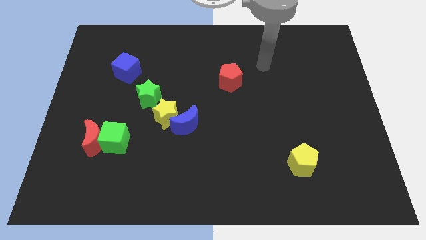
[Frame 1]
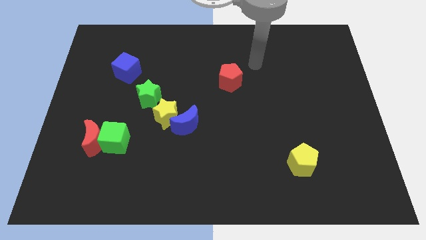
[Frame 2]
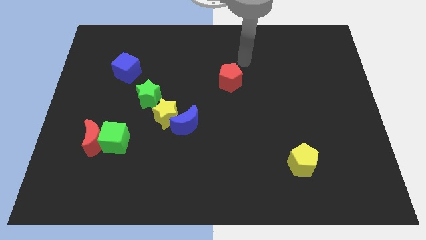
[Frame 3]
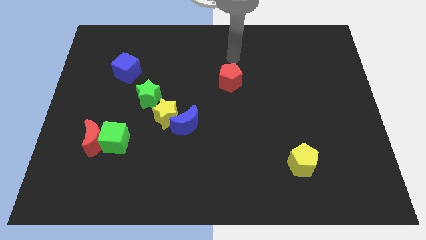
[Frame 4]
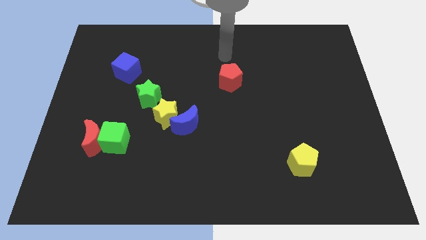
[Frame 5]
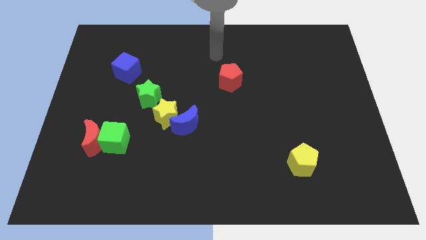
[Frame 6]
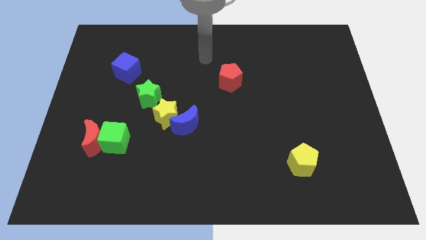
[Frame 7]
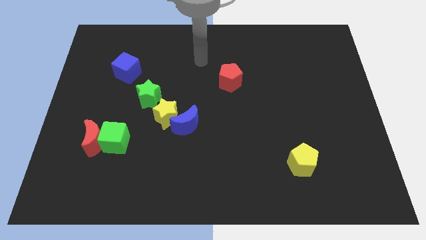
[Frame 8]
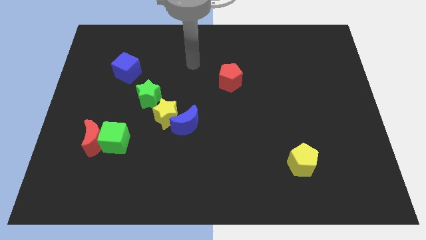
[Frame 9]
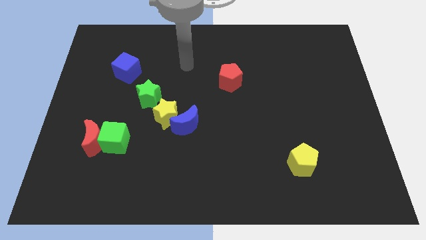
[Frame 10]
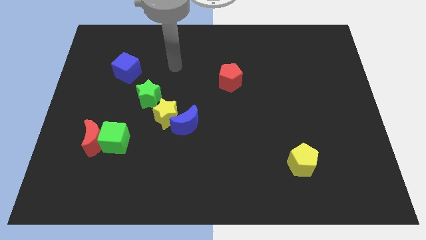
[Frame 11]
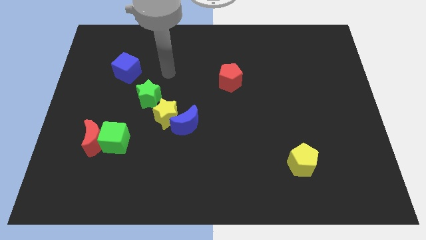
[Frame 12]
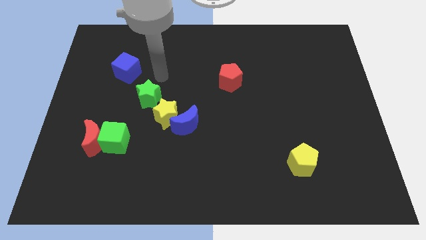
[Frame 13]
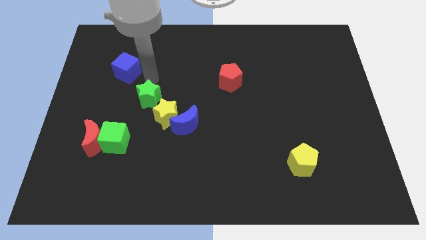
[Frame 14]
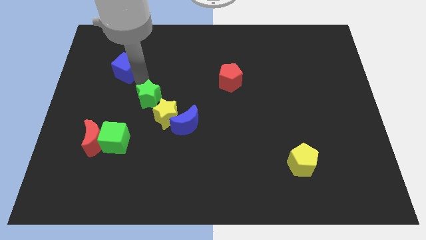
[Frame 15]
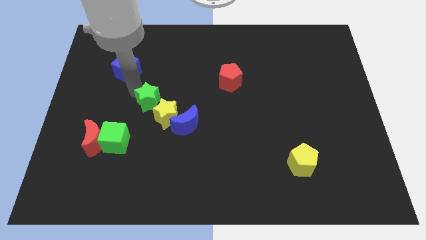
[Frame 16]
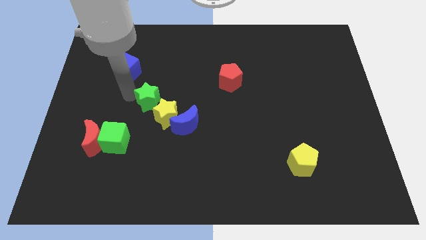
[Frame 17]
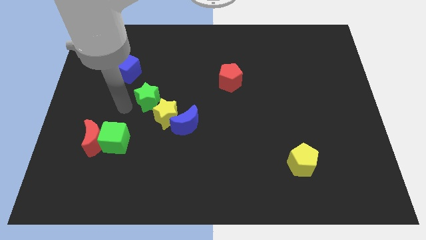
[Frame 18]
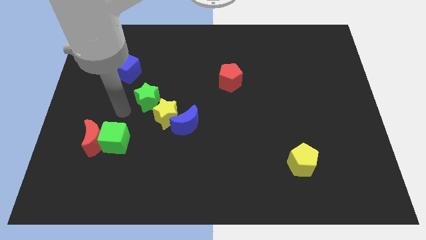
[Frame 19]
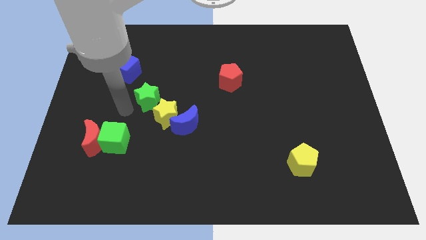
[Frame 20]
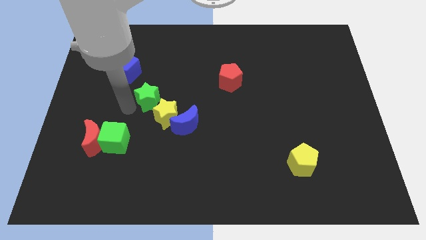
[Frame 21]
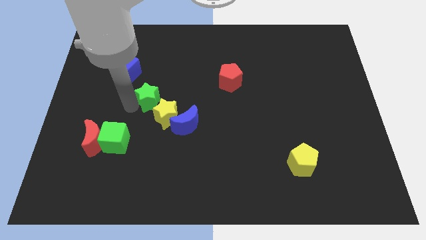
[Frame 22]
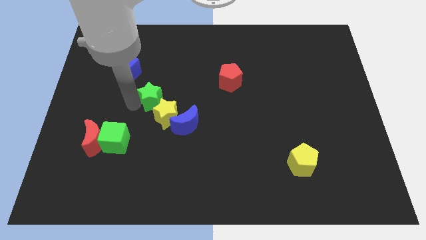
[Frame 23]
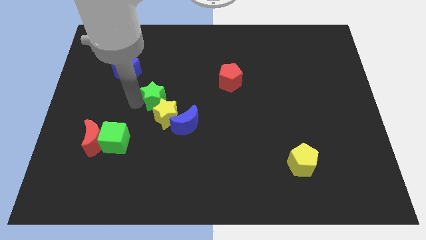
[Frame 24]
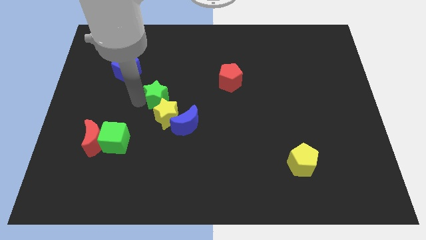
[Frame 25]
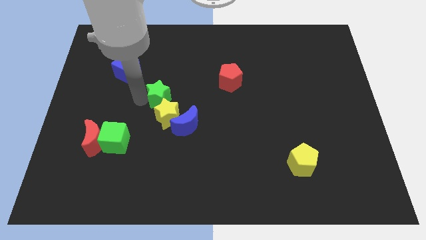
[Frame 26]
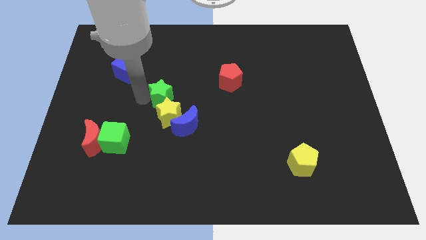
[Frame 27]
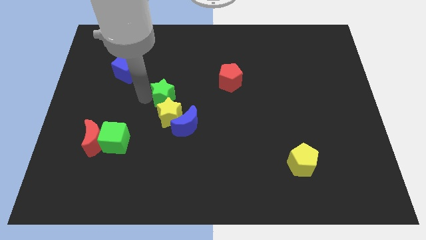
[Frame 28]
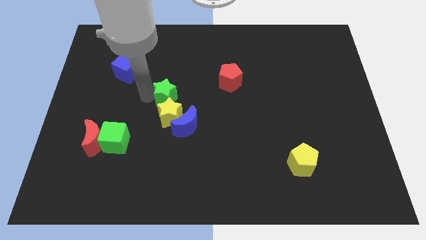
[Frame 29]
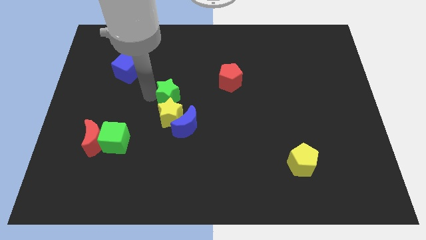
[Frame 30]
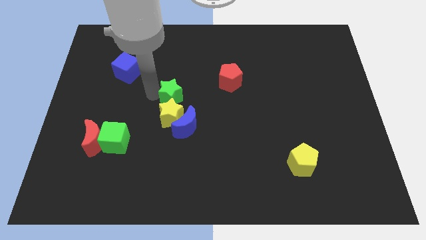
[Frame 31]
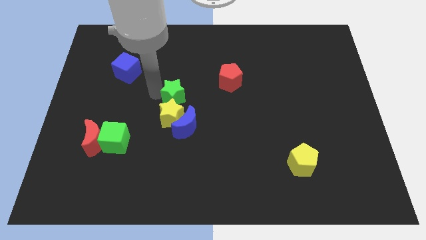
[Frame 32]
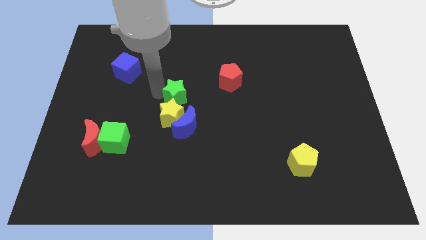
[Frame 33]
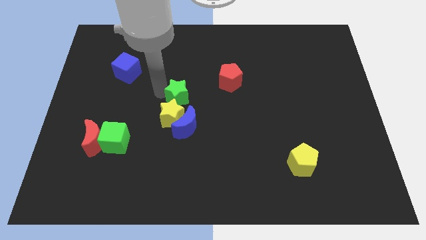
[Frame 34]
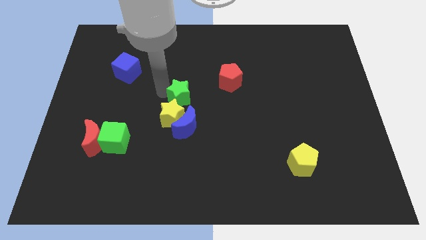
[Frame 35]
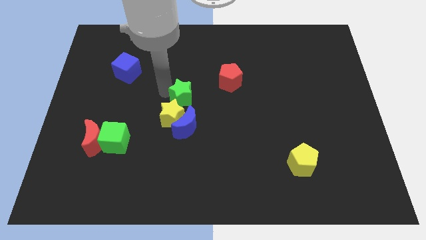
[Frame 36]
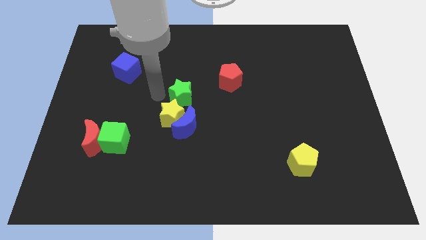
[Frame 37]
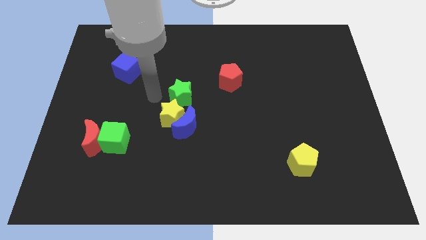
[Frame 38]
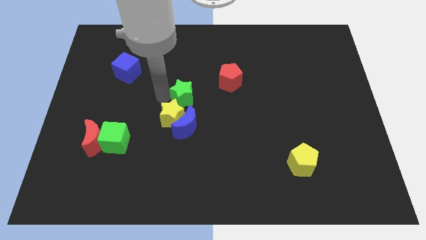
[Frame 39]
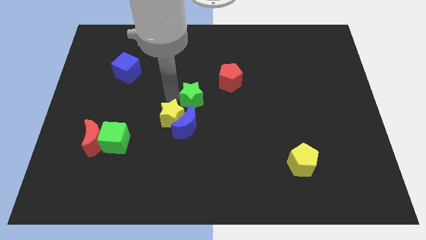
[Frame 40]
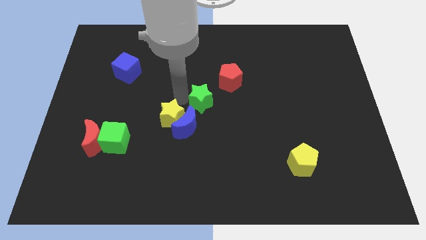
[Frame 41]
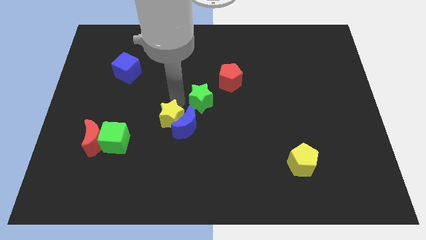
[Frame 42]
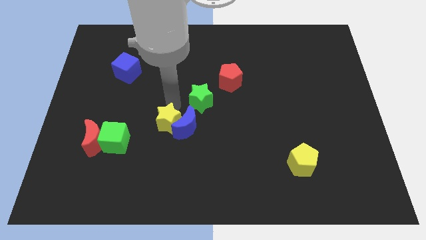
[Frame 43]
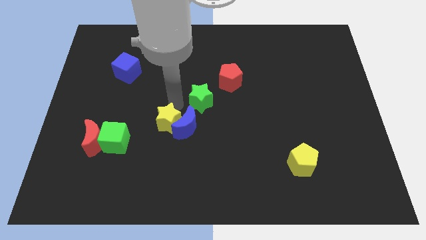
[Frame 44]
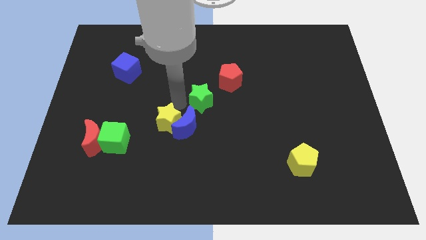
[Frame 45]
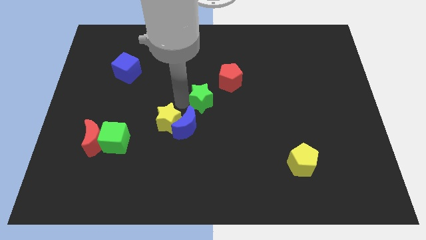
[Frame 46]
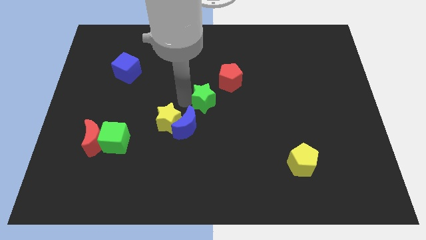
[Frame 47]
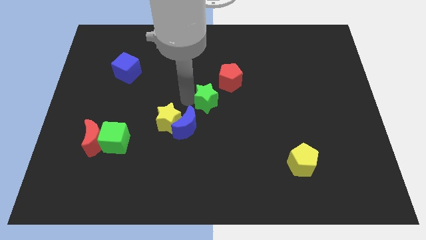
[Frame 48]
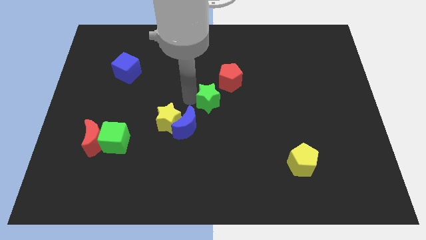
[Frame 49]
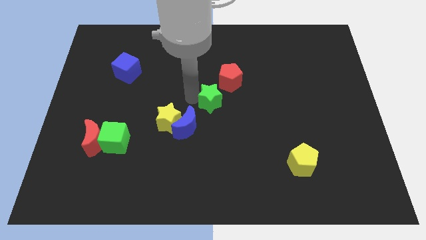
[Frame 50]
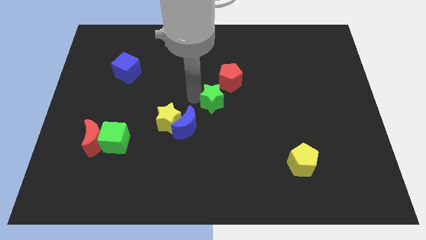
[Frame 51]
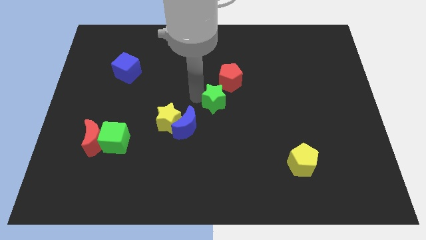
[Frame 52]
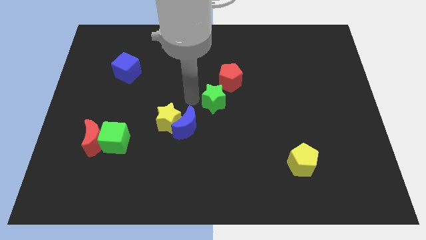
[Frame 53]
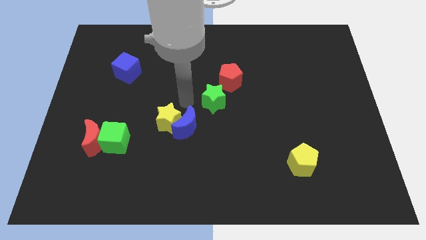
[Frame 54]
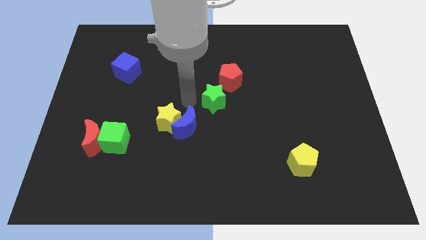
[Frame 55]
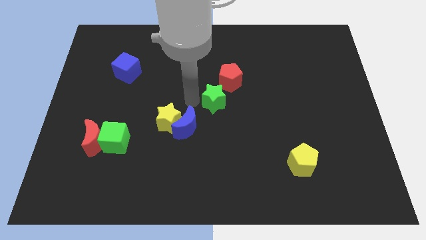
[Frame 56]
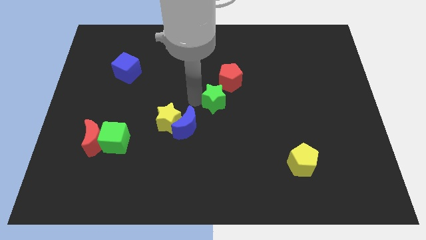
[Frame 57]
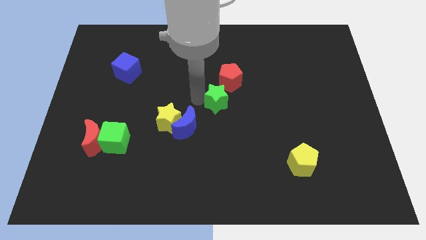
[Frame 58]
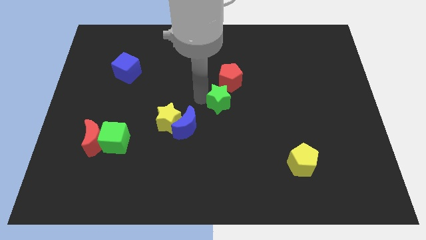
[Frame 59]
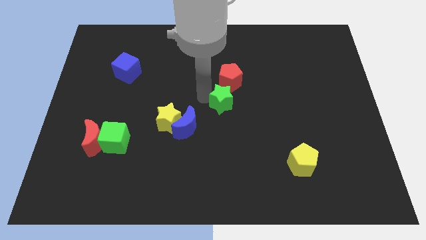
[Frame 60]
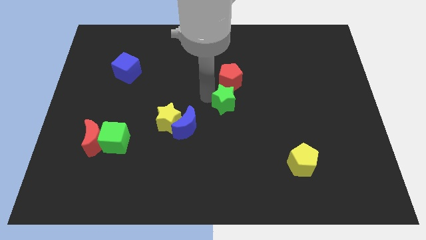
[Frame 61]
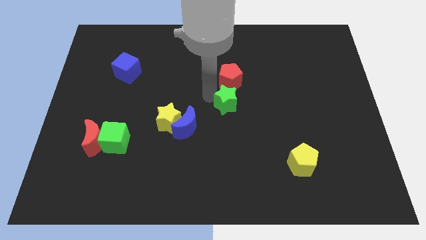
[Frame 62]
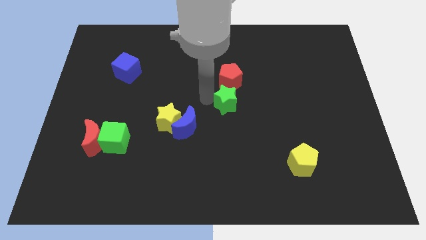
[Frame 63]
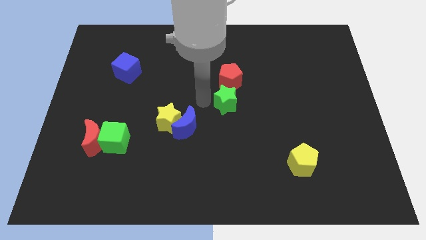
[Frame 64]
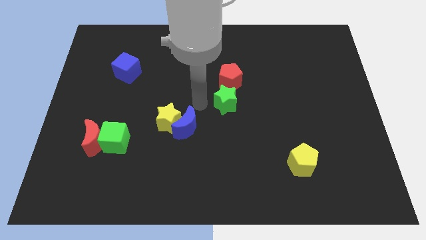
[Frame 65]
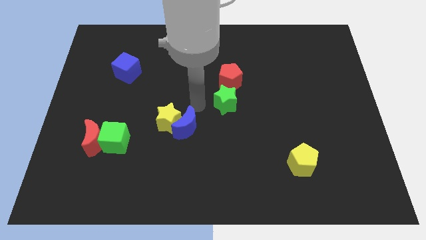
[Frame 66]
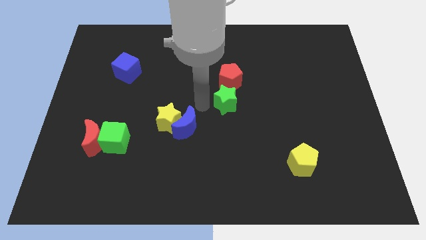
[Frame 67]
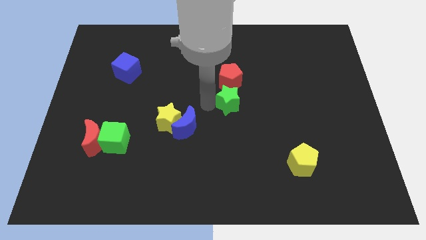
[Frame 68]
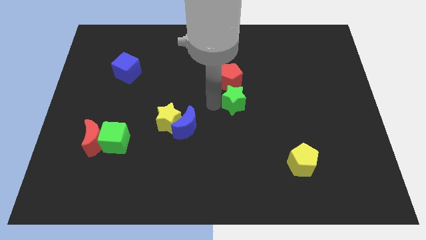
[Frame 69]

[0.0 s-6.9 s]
move the green star to the right

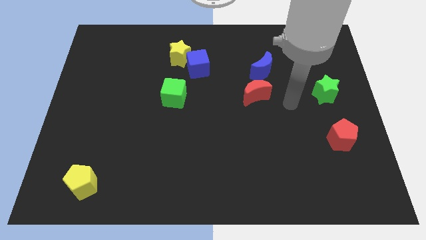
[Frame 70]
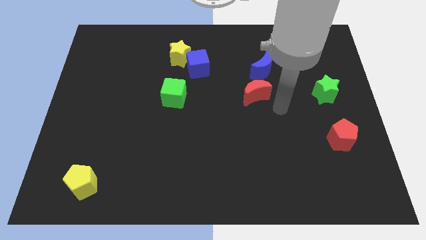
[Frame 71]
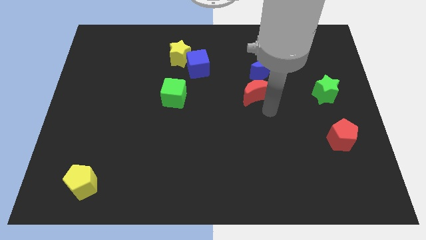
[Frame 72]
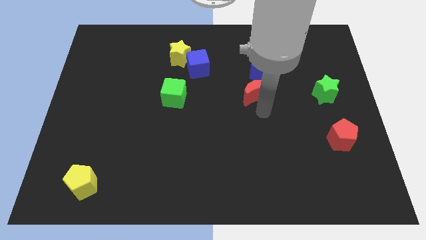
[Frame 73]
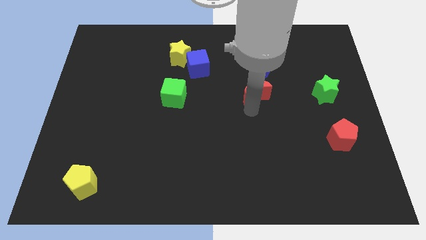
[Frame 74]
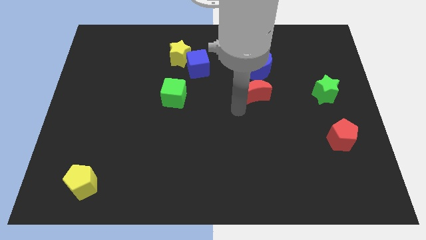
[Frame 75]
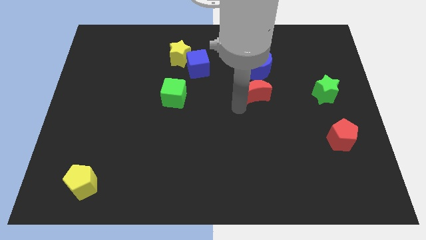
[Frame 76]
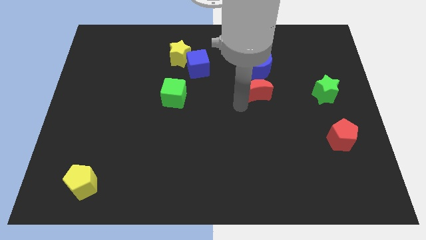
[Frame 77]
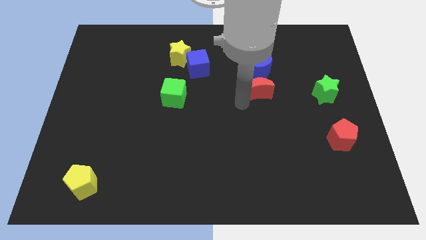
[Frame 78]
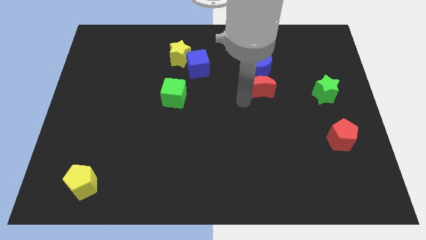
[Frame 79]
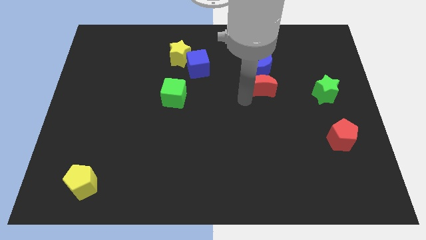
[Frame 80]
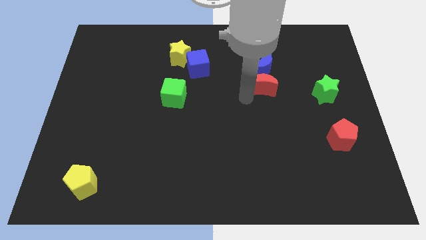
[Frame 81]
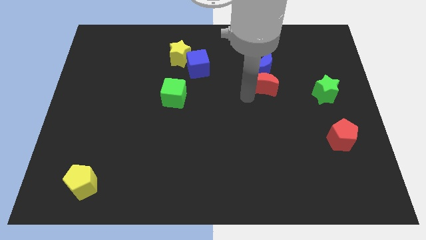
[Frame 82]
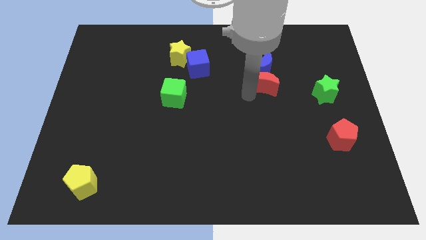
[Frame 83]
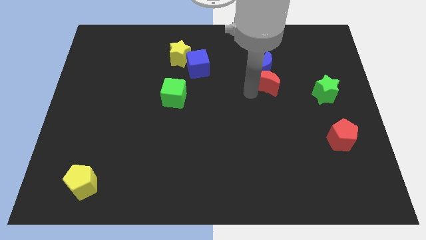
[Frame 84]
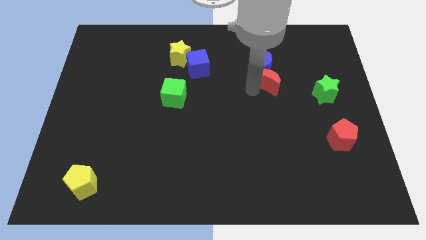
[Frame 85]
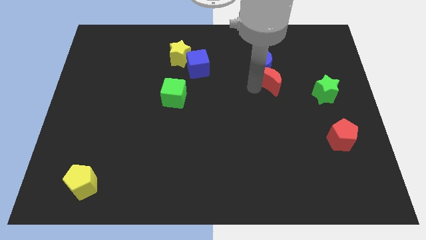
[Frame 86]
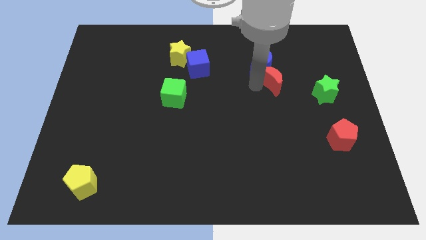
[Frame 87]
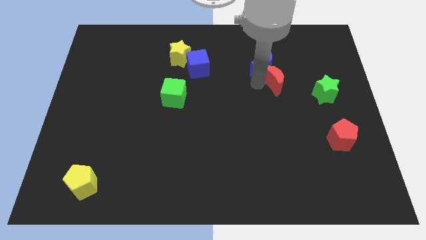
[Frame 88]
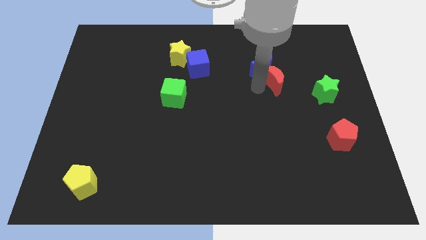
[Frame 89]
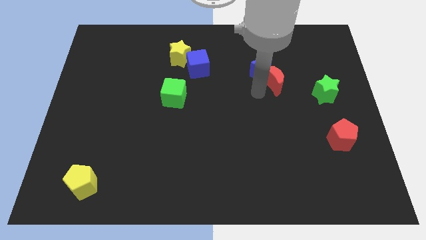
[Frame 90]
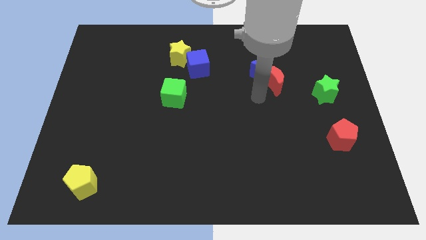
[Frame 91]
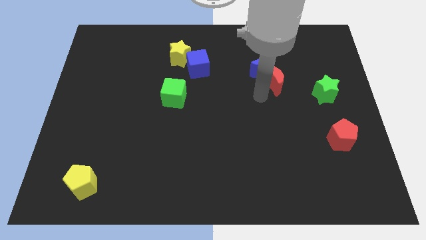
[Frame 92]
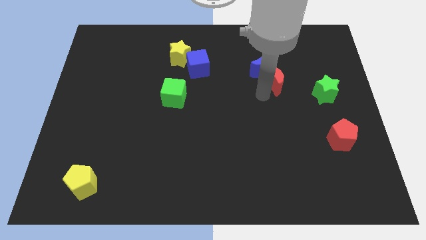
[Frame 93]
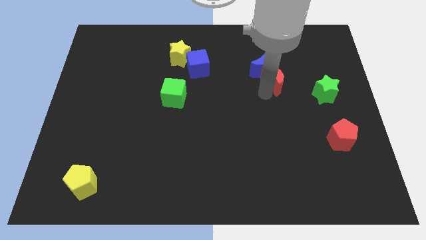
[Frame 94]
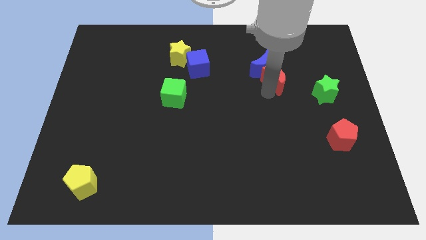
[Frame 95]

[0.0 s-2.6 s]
slide the red moon a bit upwards and right
